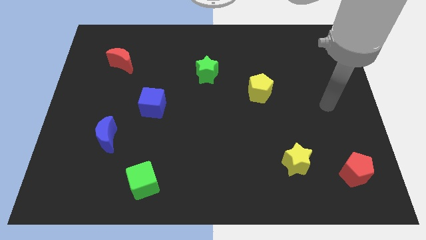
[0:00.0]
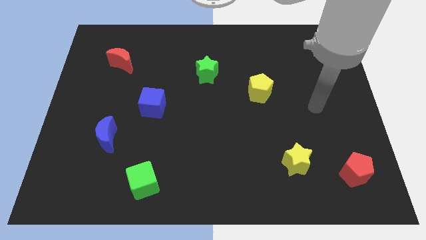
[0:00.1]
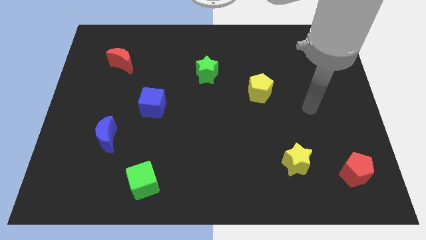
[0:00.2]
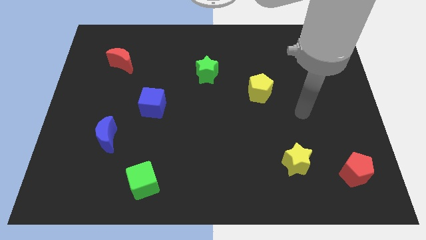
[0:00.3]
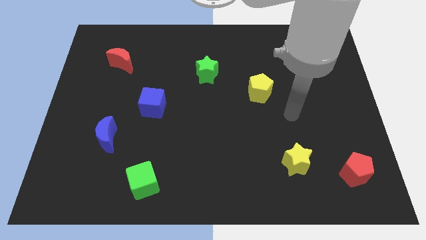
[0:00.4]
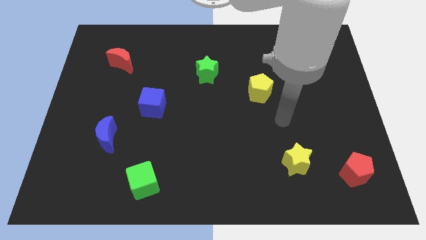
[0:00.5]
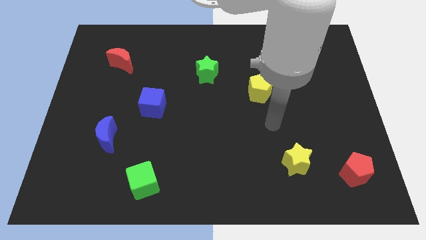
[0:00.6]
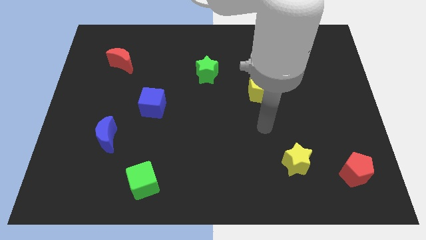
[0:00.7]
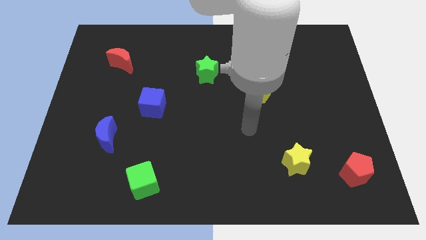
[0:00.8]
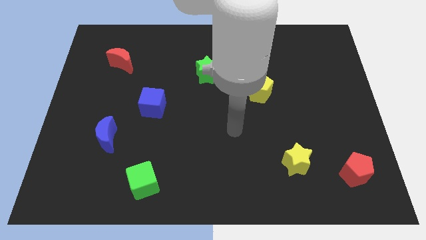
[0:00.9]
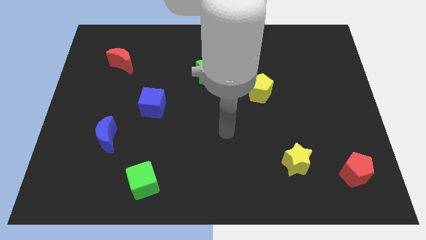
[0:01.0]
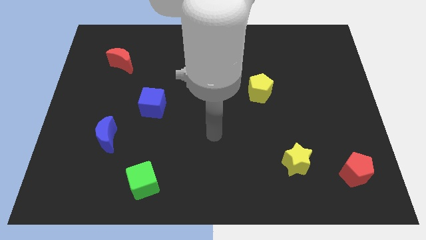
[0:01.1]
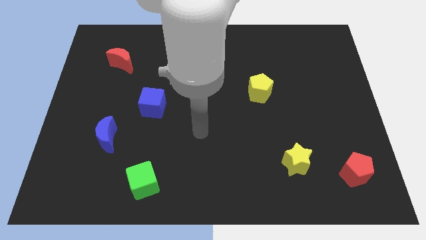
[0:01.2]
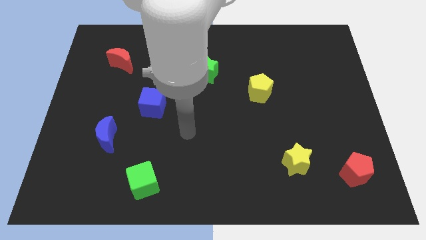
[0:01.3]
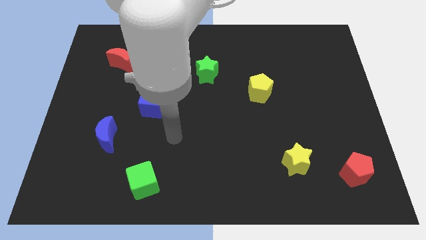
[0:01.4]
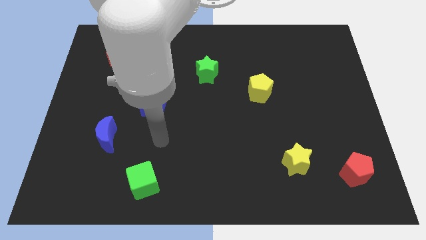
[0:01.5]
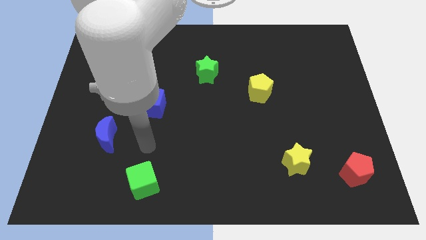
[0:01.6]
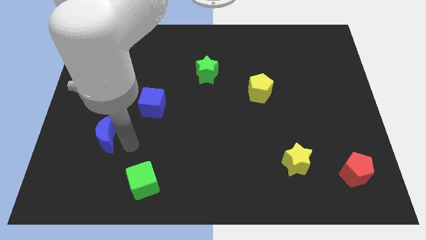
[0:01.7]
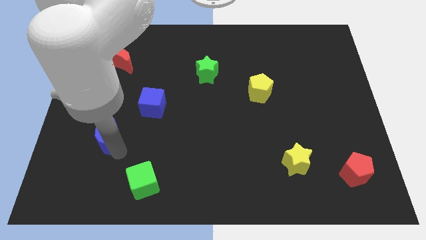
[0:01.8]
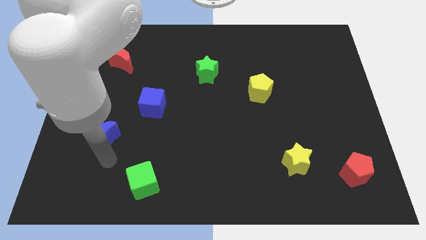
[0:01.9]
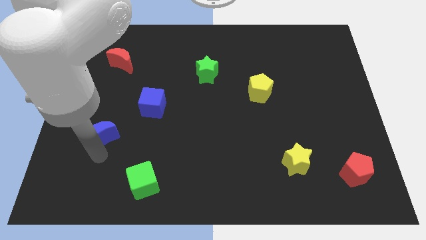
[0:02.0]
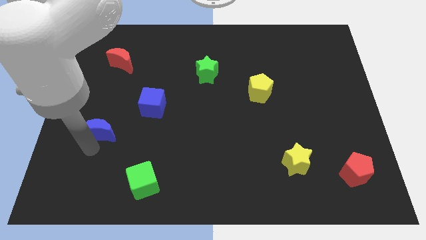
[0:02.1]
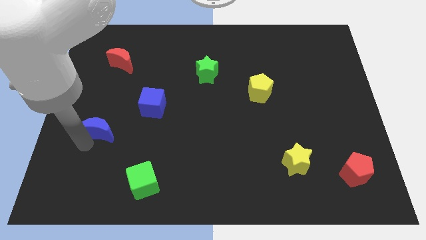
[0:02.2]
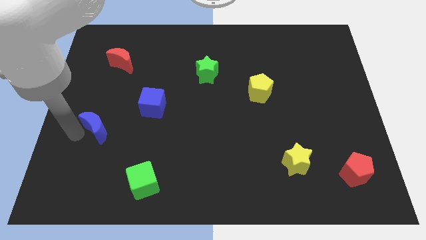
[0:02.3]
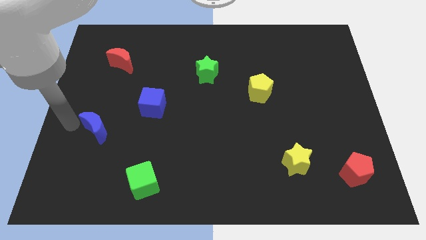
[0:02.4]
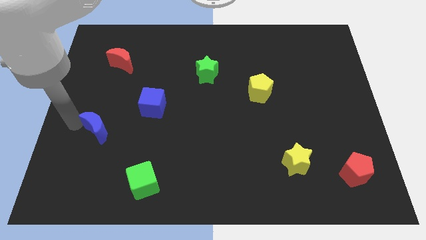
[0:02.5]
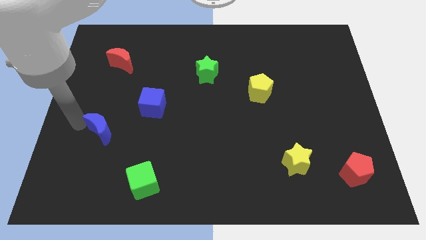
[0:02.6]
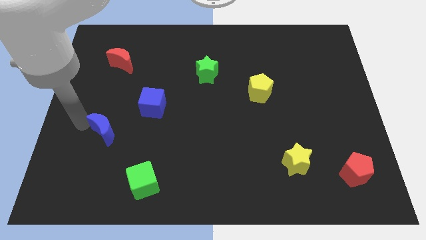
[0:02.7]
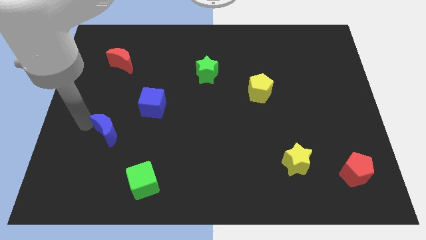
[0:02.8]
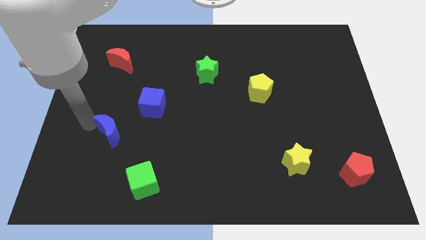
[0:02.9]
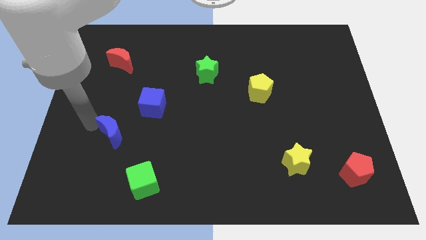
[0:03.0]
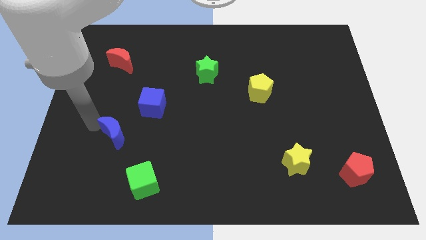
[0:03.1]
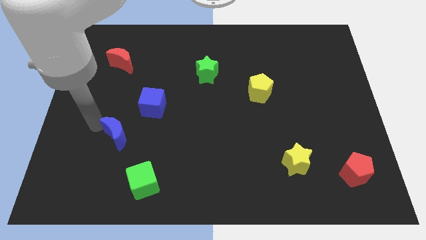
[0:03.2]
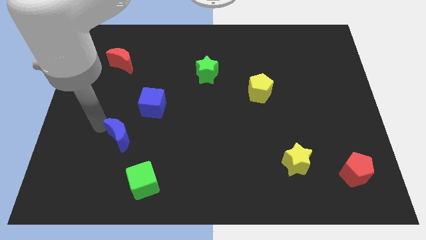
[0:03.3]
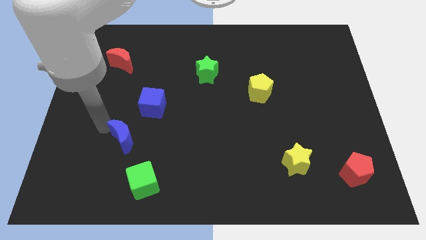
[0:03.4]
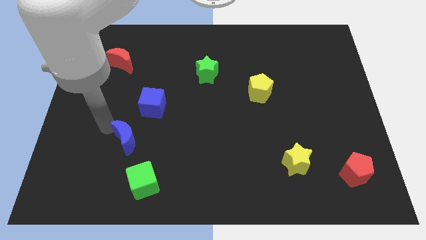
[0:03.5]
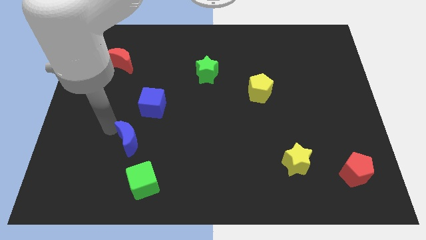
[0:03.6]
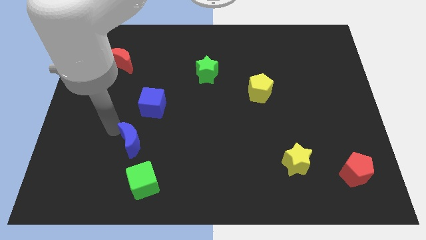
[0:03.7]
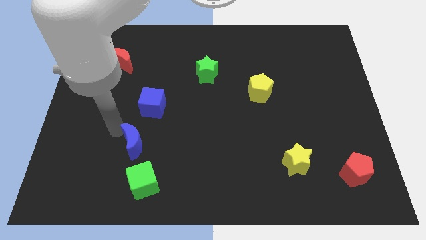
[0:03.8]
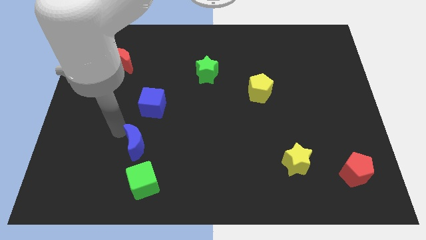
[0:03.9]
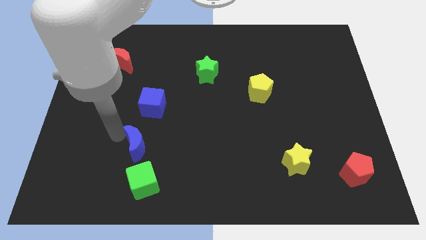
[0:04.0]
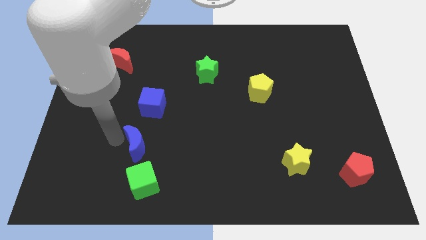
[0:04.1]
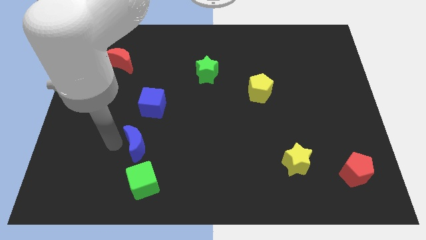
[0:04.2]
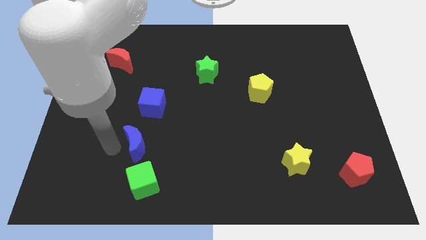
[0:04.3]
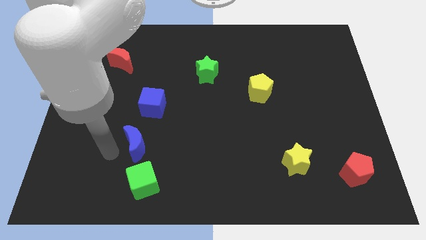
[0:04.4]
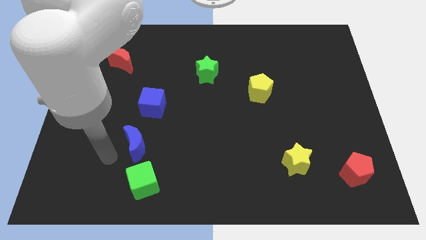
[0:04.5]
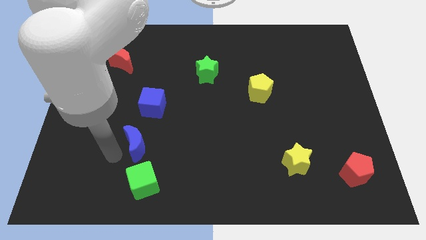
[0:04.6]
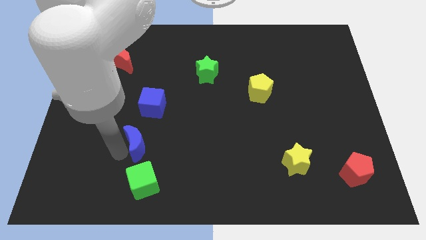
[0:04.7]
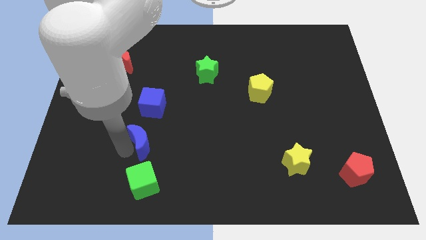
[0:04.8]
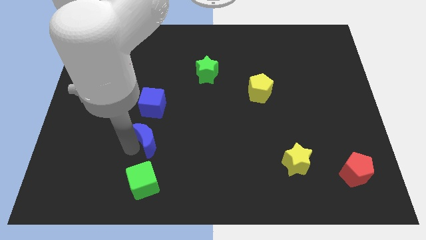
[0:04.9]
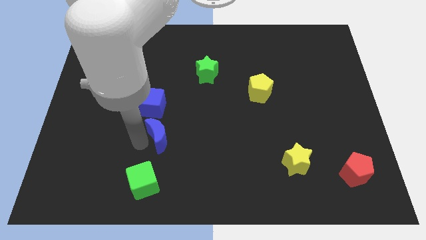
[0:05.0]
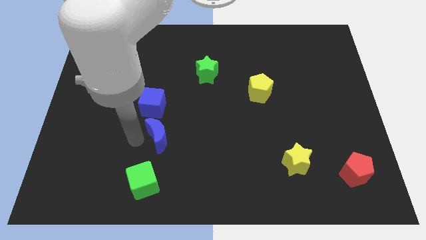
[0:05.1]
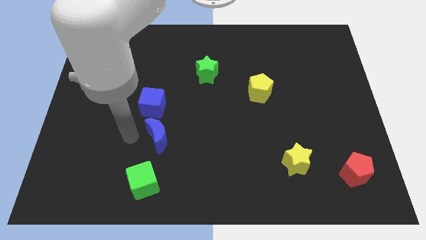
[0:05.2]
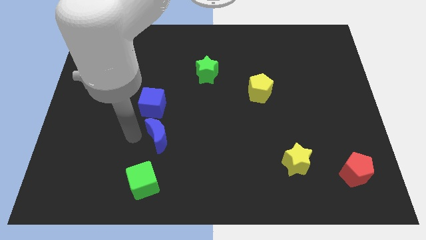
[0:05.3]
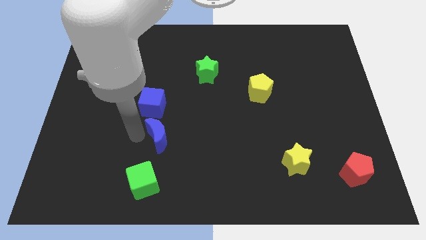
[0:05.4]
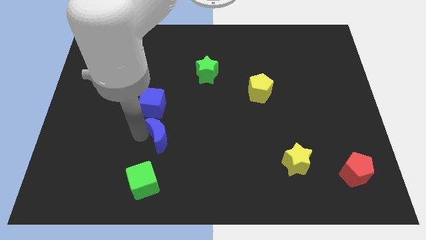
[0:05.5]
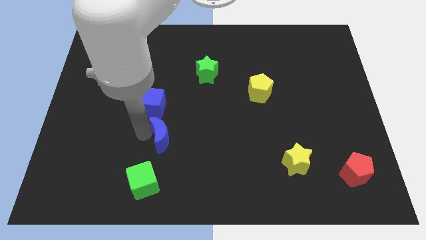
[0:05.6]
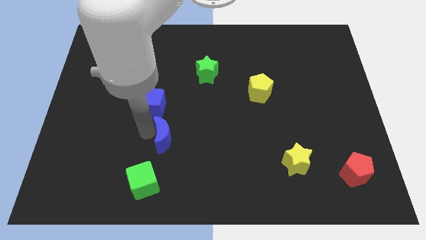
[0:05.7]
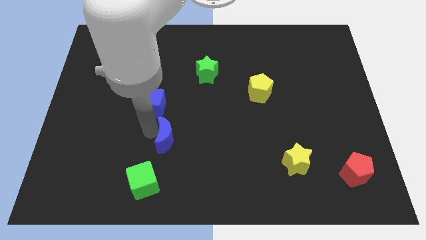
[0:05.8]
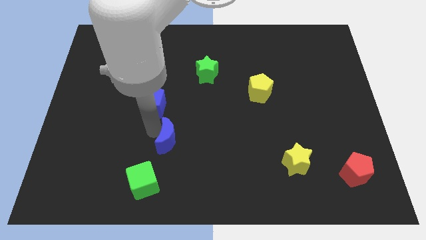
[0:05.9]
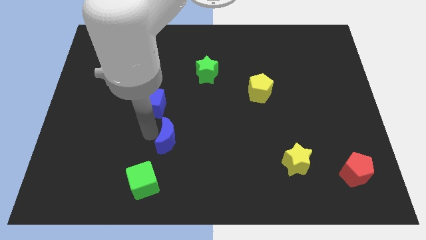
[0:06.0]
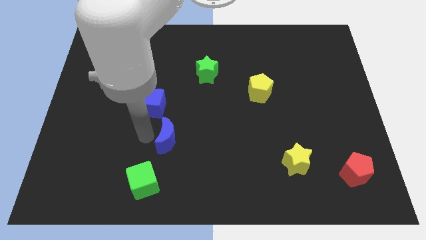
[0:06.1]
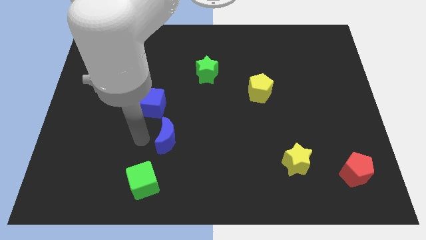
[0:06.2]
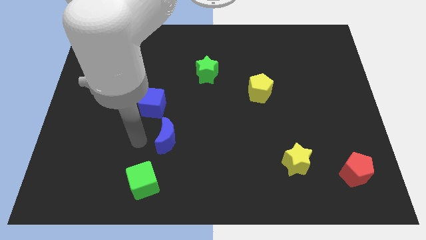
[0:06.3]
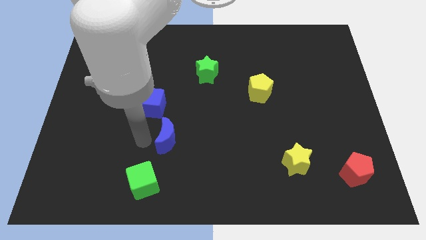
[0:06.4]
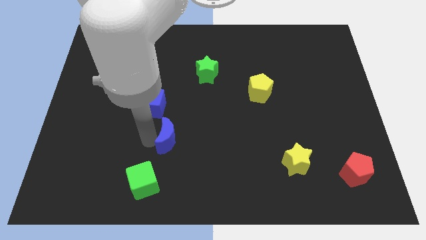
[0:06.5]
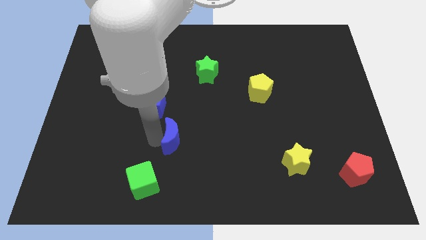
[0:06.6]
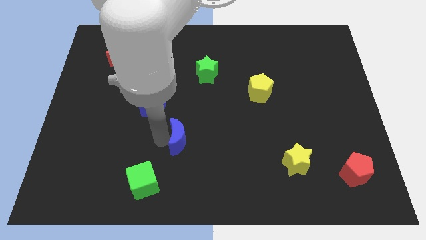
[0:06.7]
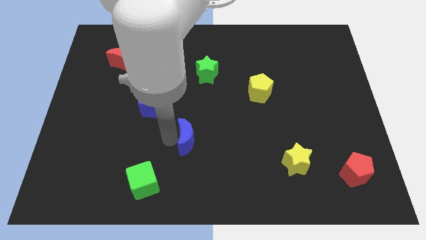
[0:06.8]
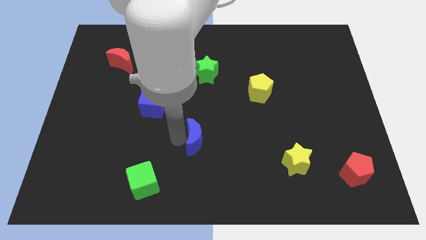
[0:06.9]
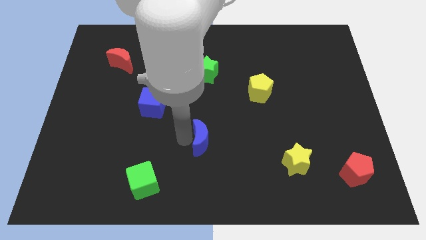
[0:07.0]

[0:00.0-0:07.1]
push the blue moon to the right

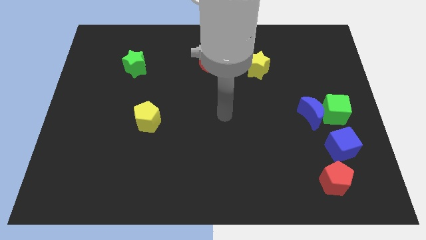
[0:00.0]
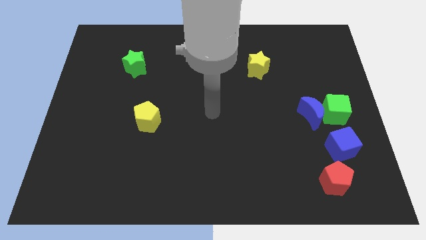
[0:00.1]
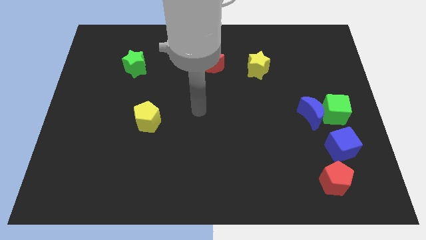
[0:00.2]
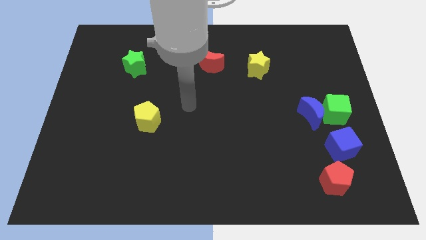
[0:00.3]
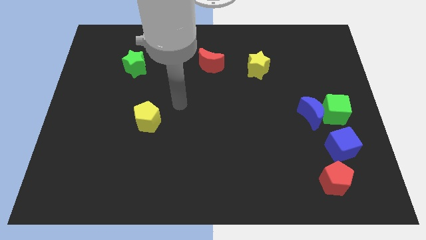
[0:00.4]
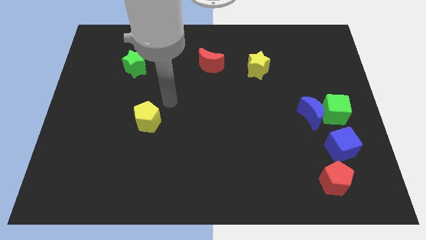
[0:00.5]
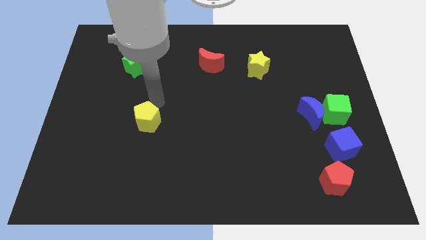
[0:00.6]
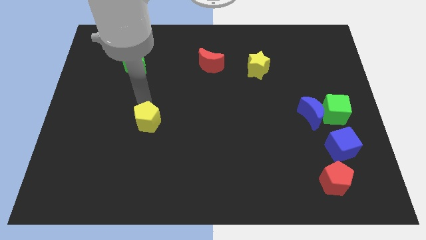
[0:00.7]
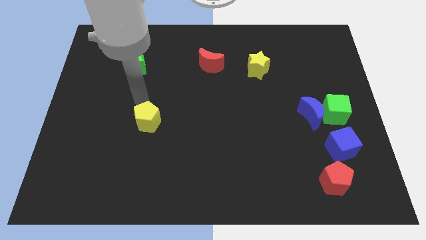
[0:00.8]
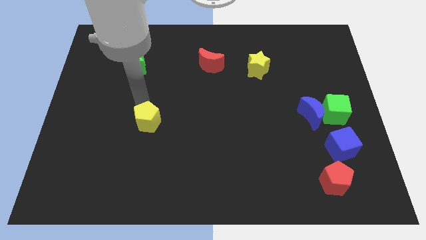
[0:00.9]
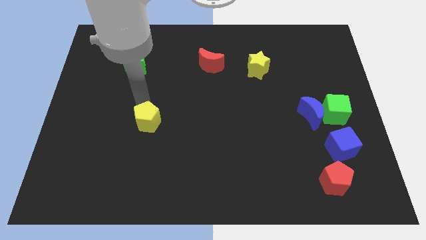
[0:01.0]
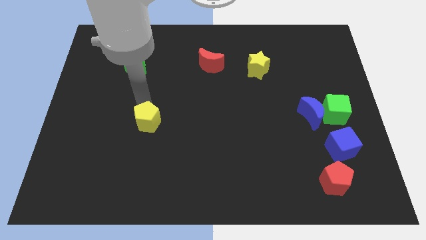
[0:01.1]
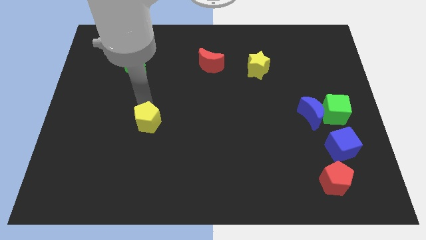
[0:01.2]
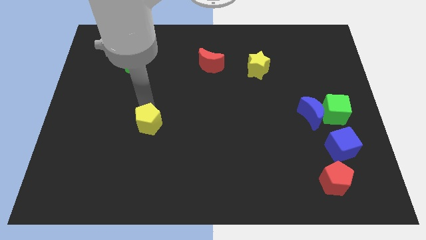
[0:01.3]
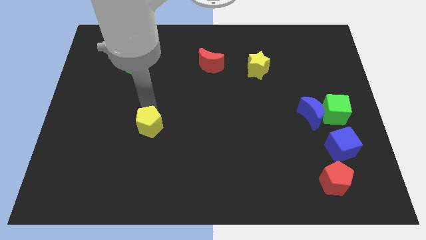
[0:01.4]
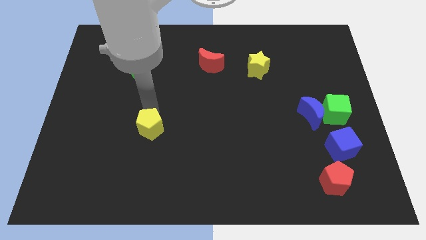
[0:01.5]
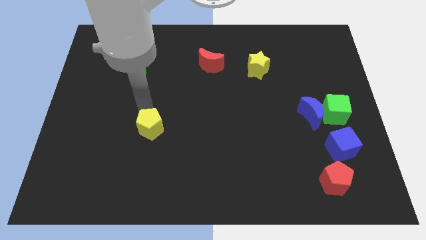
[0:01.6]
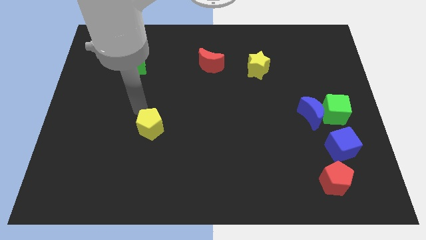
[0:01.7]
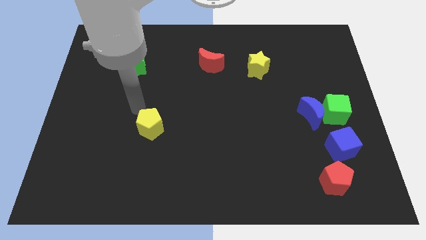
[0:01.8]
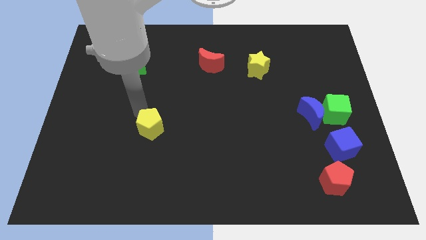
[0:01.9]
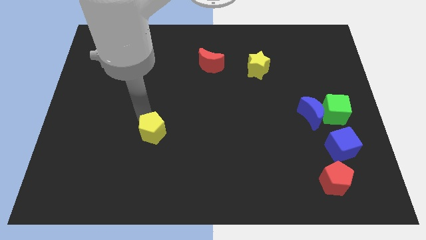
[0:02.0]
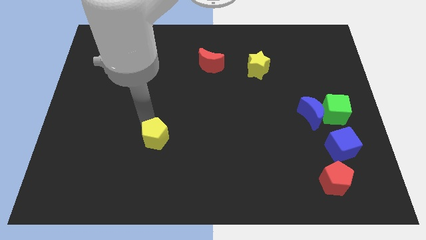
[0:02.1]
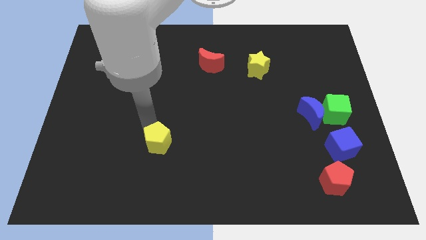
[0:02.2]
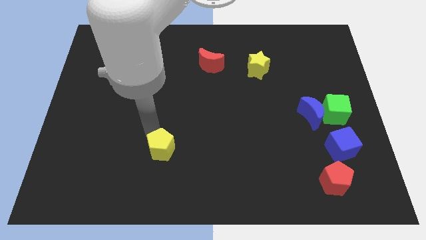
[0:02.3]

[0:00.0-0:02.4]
slightly push the yellow pentagon down and then to the right
